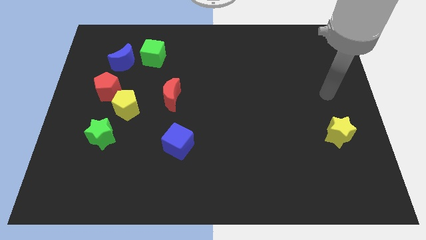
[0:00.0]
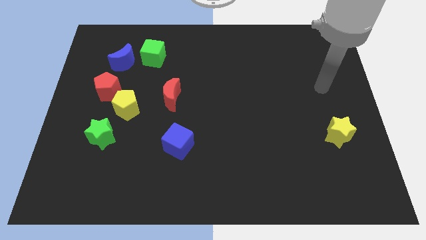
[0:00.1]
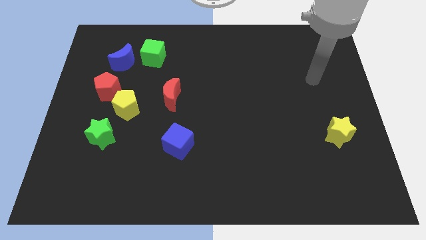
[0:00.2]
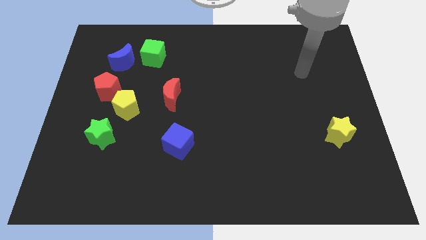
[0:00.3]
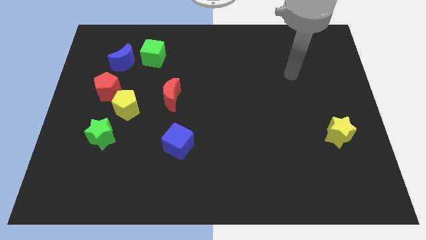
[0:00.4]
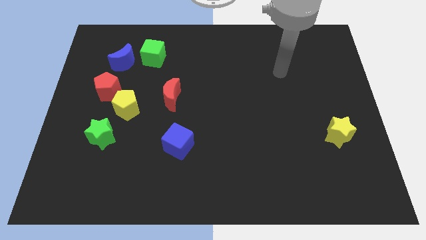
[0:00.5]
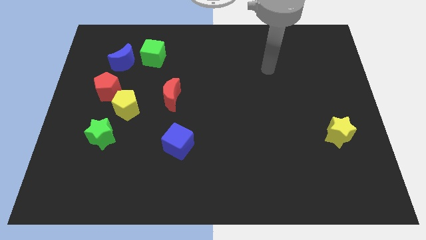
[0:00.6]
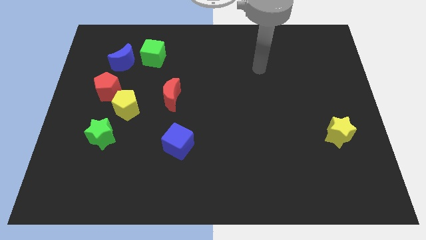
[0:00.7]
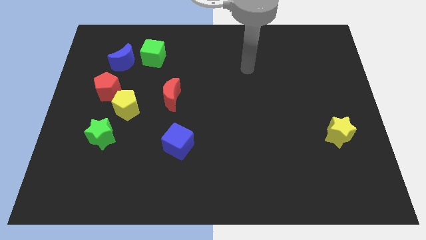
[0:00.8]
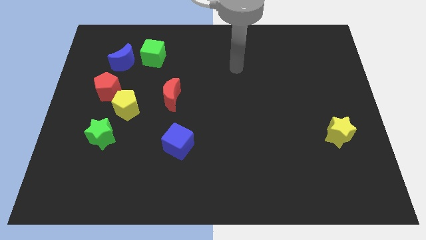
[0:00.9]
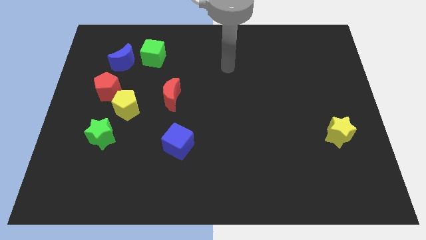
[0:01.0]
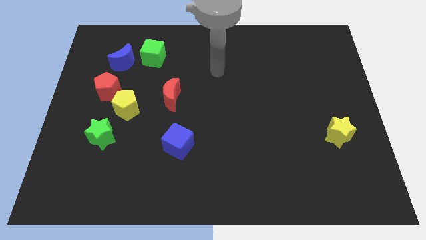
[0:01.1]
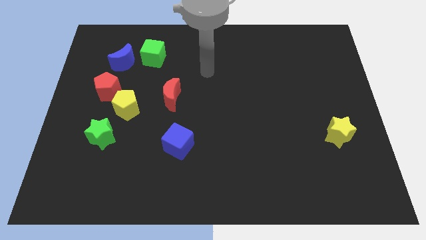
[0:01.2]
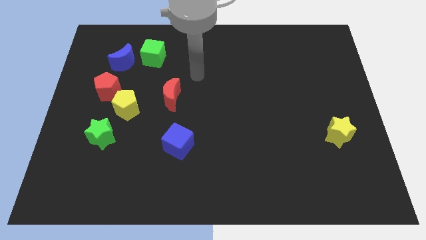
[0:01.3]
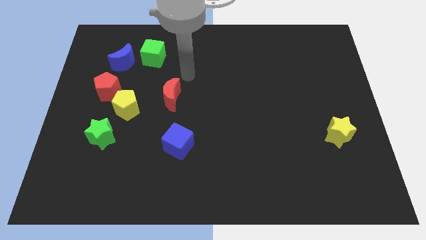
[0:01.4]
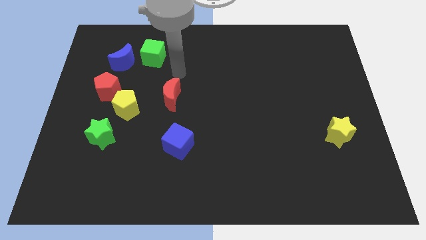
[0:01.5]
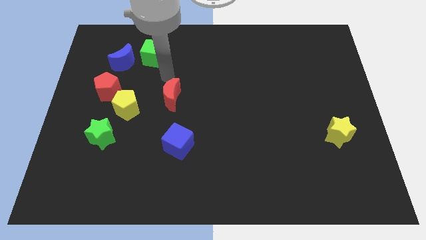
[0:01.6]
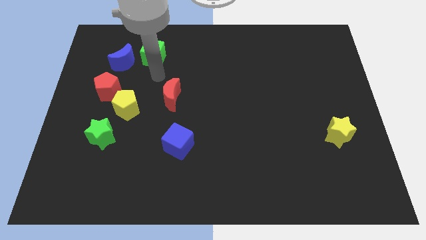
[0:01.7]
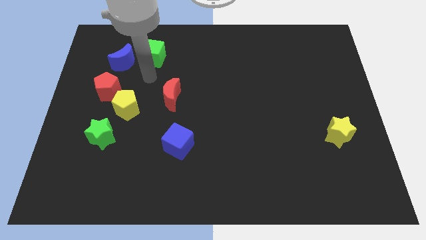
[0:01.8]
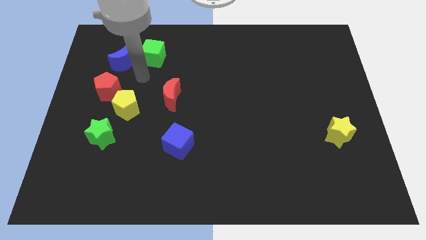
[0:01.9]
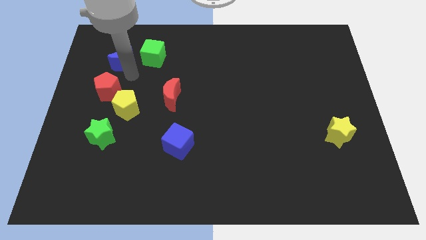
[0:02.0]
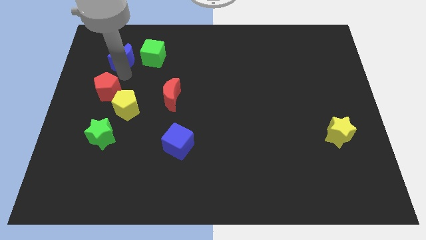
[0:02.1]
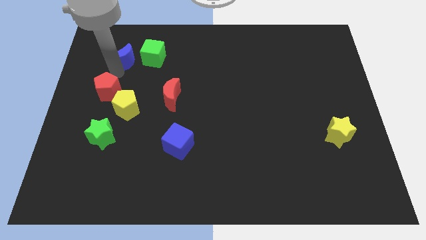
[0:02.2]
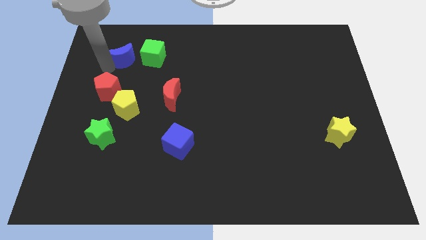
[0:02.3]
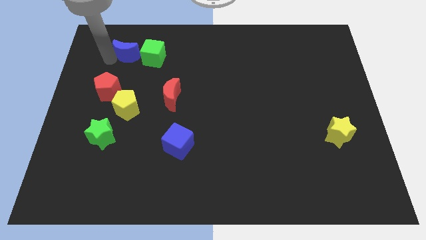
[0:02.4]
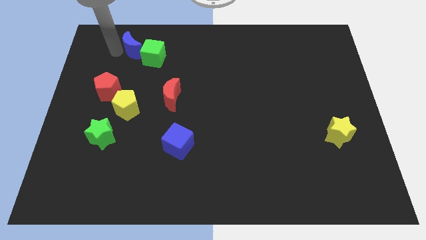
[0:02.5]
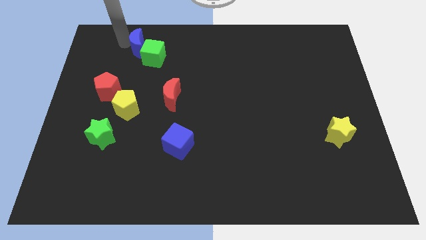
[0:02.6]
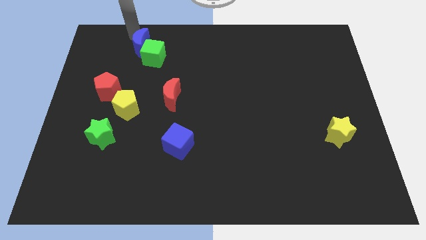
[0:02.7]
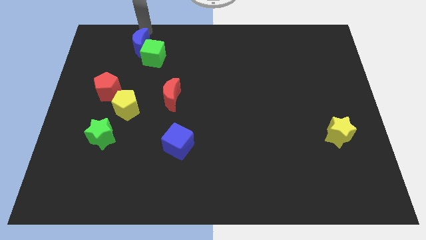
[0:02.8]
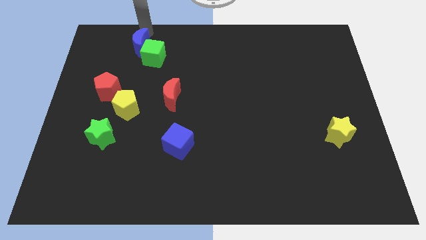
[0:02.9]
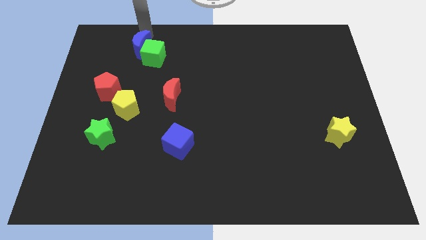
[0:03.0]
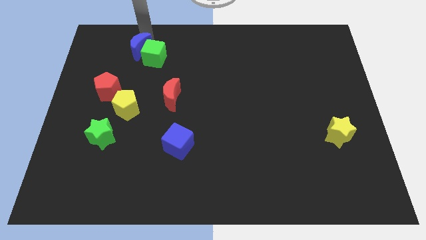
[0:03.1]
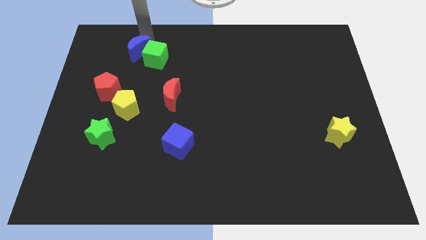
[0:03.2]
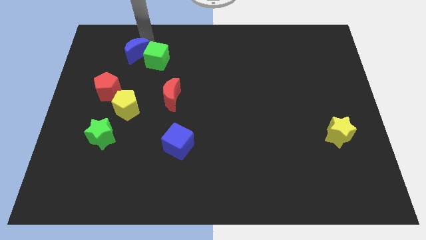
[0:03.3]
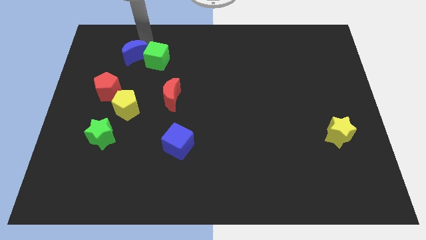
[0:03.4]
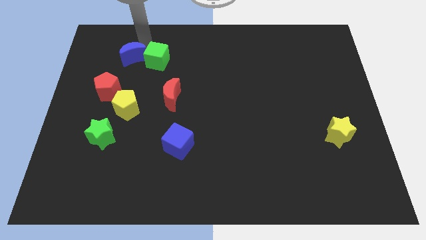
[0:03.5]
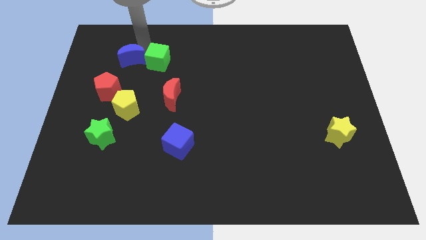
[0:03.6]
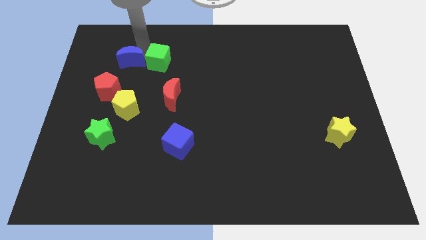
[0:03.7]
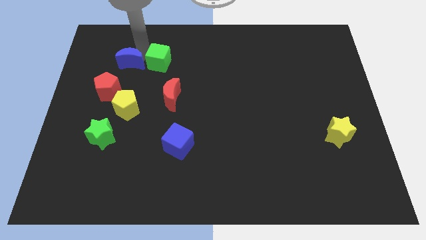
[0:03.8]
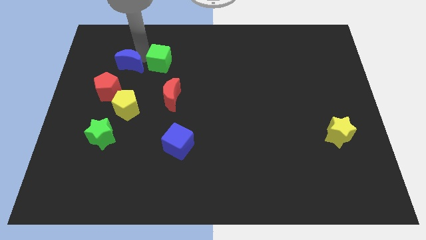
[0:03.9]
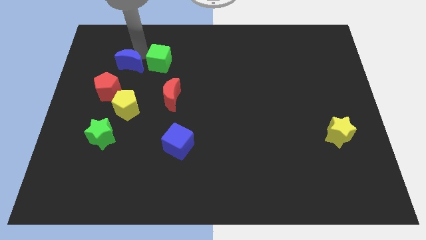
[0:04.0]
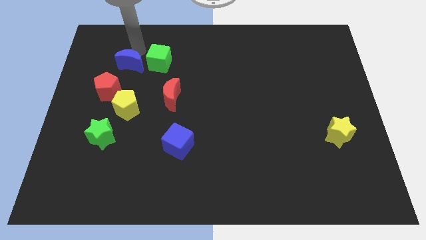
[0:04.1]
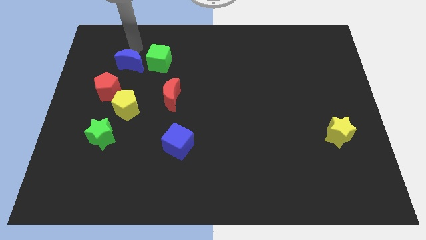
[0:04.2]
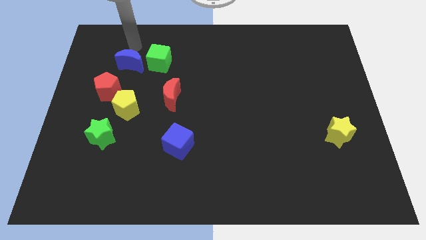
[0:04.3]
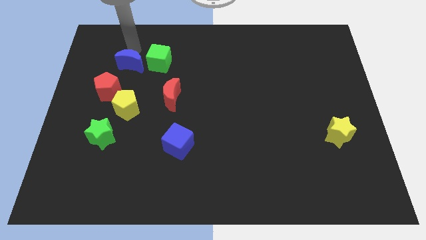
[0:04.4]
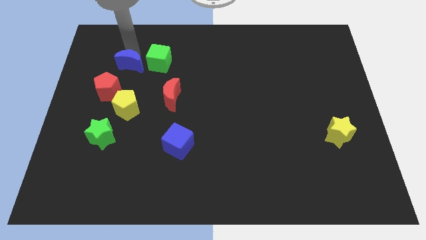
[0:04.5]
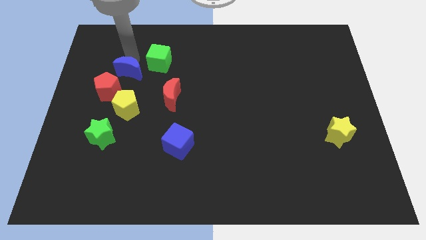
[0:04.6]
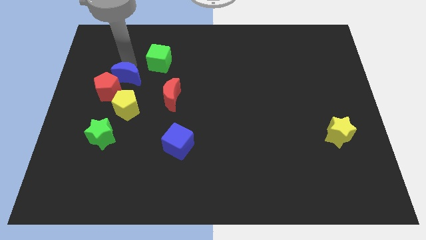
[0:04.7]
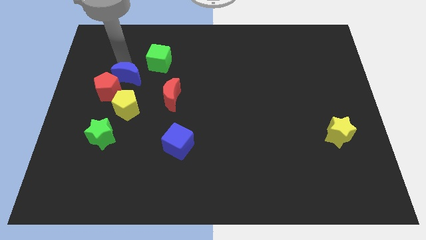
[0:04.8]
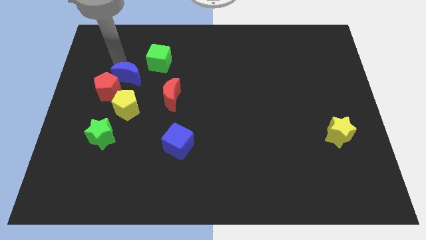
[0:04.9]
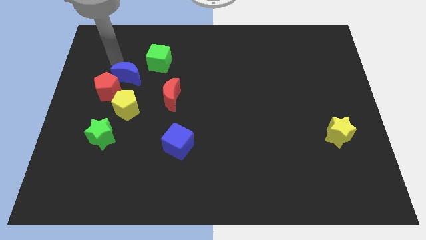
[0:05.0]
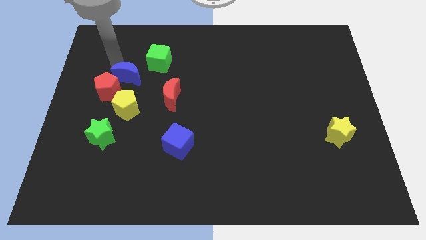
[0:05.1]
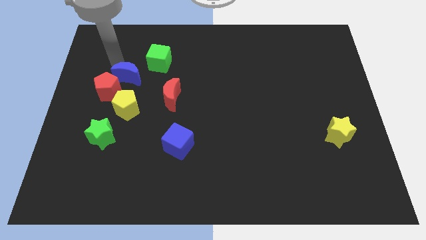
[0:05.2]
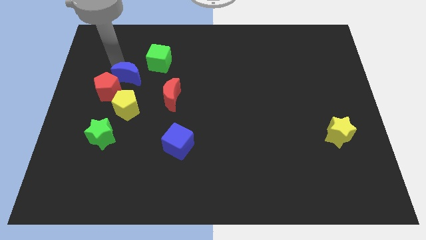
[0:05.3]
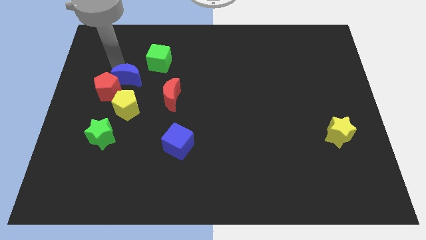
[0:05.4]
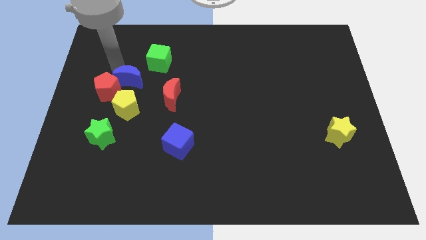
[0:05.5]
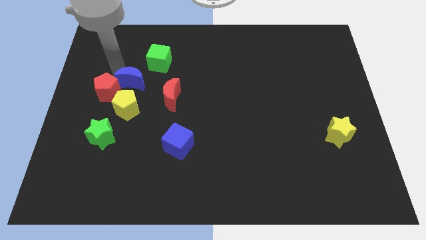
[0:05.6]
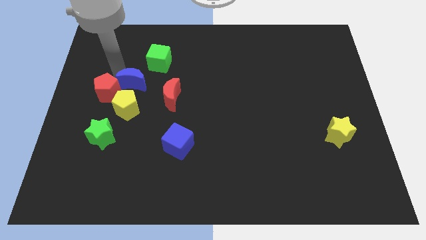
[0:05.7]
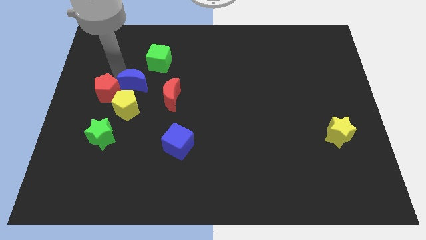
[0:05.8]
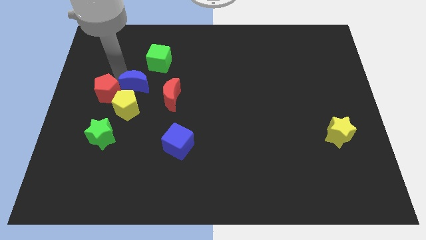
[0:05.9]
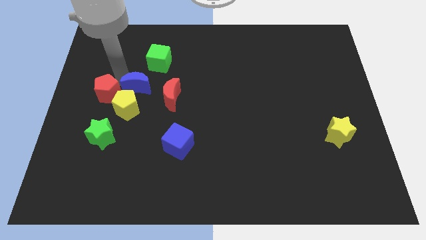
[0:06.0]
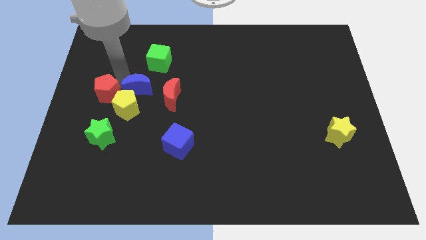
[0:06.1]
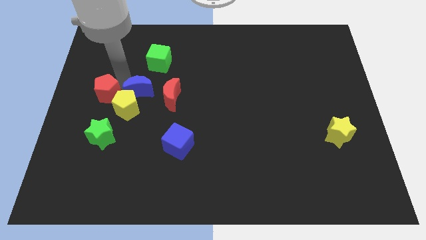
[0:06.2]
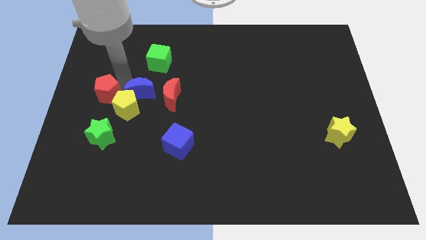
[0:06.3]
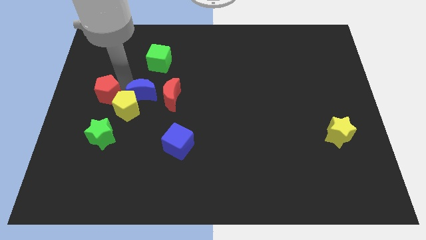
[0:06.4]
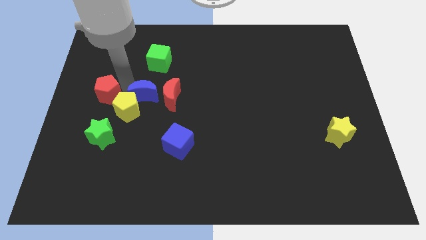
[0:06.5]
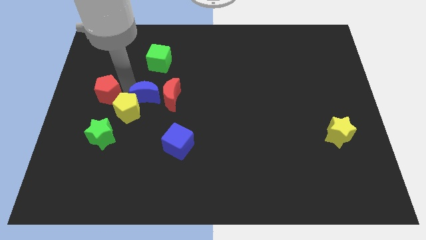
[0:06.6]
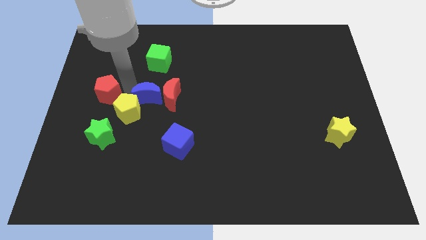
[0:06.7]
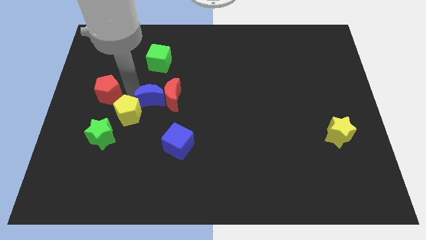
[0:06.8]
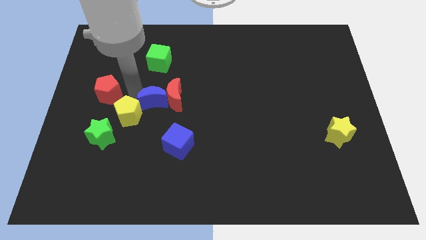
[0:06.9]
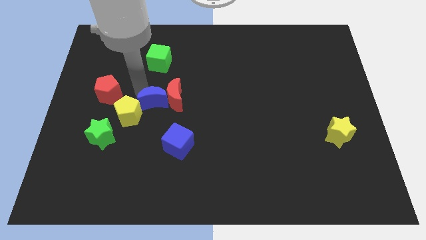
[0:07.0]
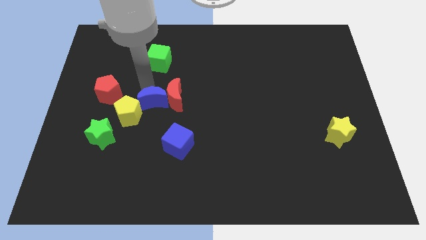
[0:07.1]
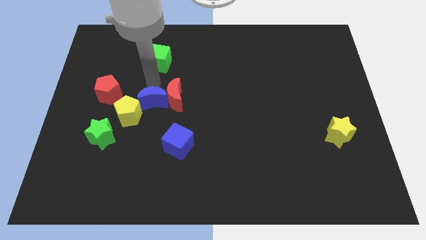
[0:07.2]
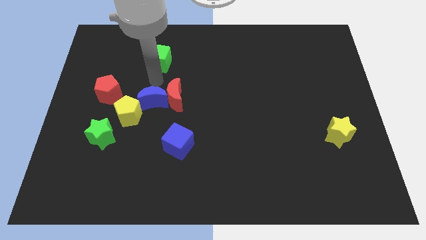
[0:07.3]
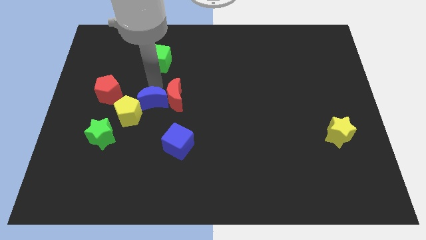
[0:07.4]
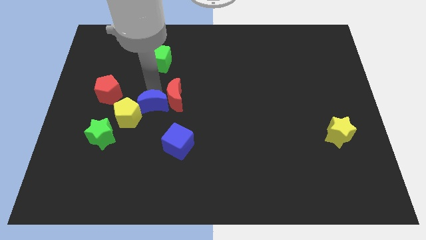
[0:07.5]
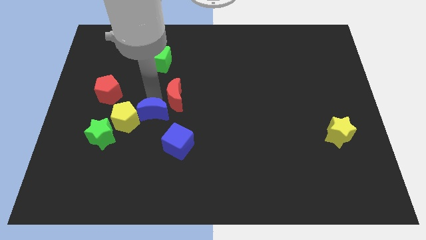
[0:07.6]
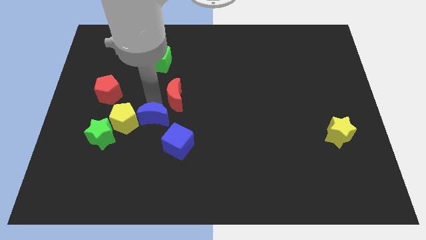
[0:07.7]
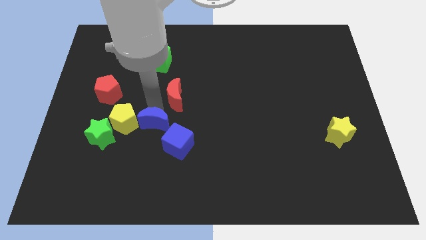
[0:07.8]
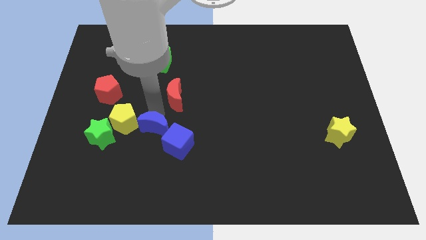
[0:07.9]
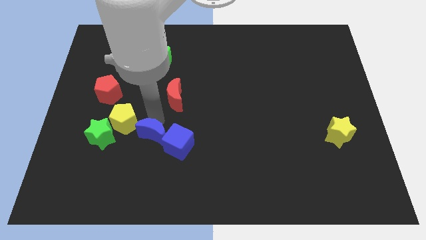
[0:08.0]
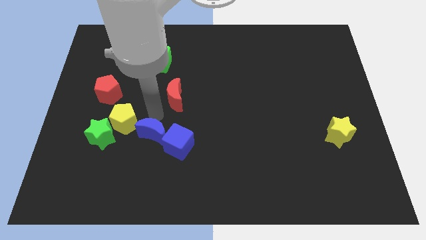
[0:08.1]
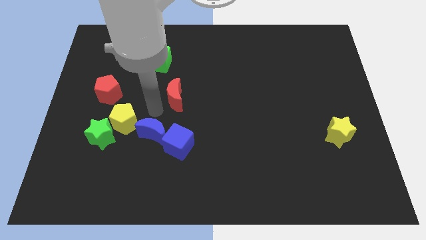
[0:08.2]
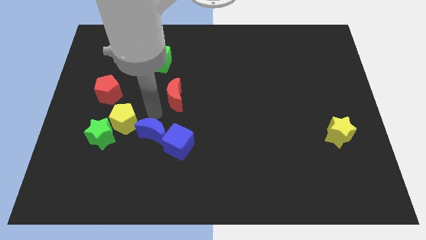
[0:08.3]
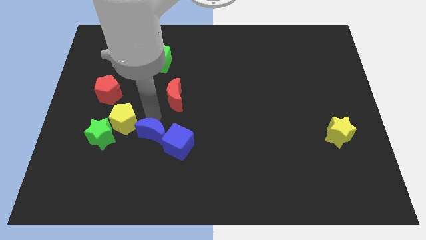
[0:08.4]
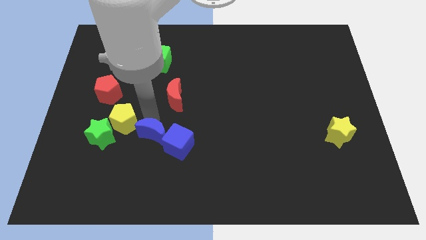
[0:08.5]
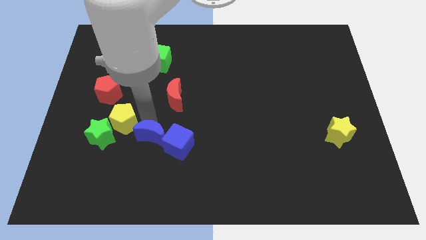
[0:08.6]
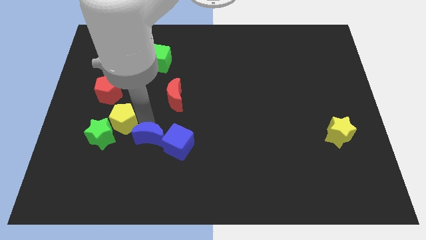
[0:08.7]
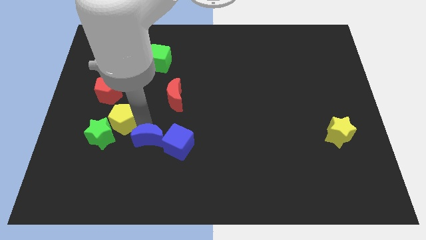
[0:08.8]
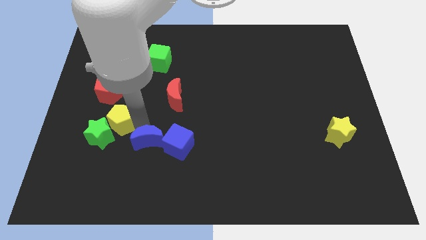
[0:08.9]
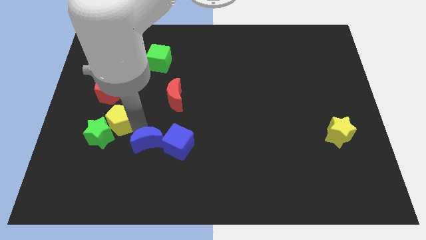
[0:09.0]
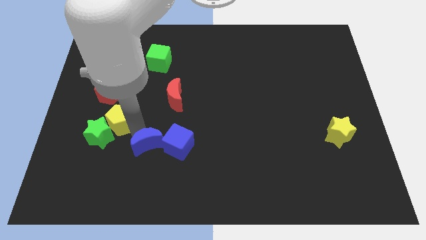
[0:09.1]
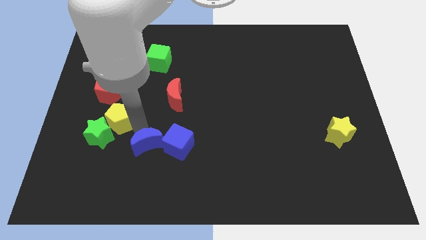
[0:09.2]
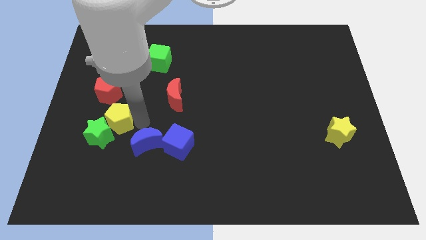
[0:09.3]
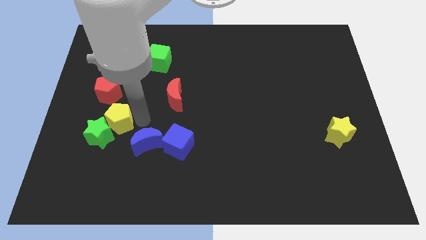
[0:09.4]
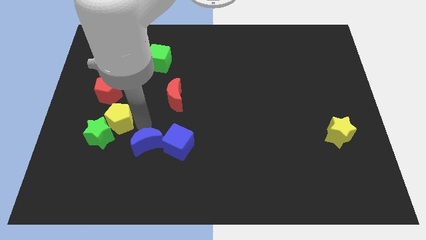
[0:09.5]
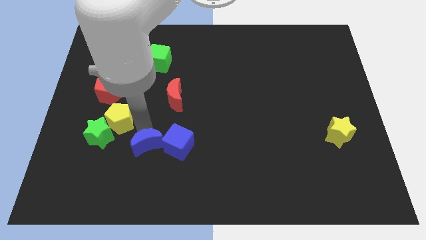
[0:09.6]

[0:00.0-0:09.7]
put the blue moon to the bottom left side of the blue cube
